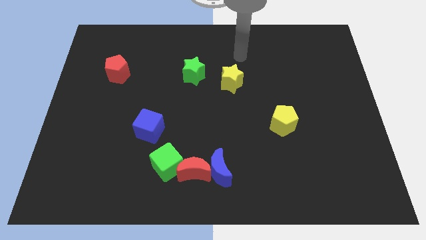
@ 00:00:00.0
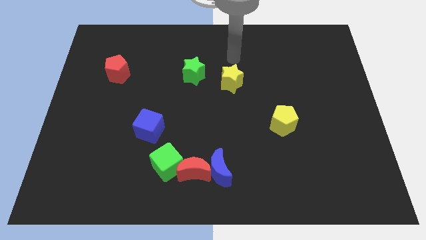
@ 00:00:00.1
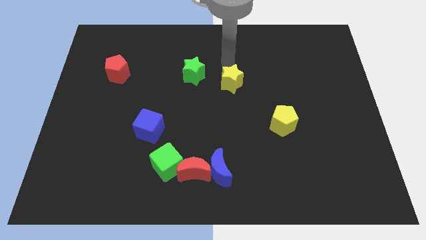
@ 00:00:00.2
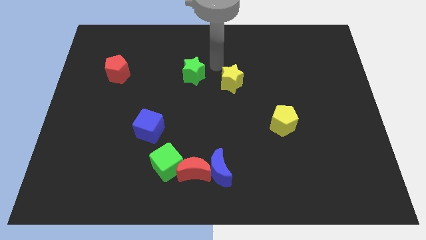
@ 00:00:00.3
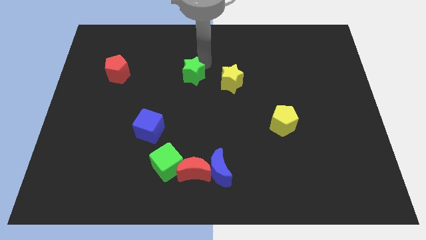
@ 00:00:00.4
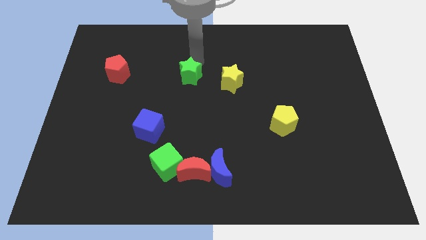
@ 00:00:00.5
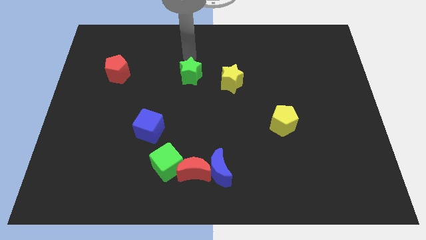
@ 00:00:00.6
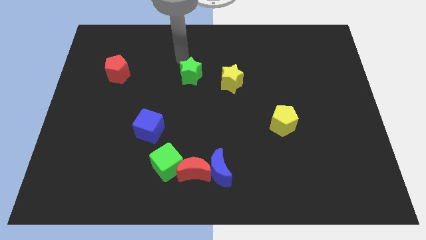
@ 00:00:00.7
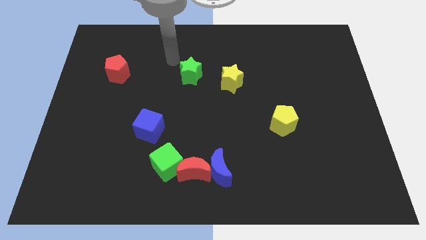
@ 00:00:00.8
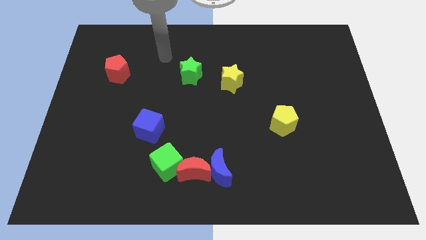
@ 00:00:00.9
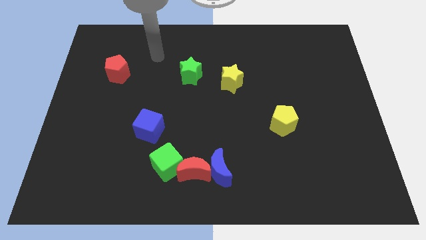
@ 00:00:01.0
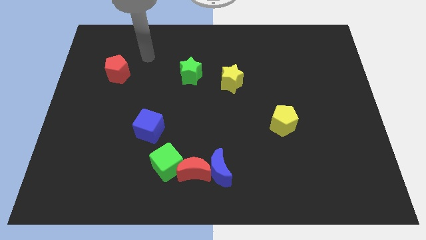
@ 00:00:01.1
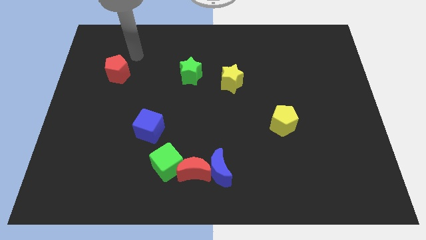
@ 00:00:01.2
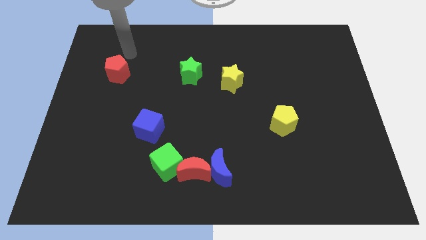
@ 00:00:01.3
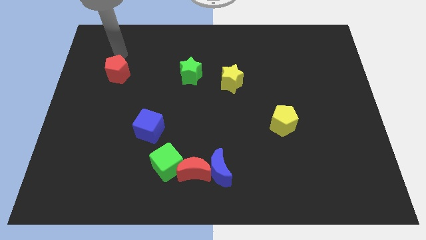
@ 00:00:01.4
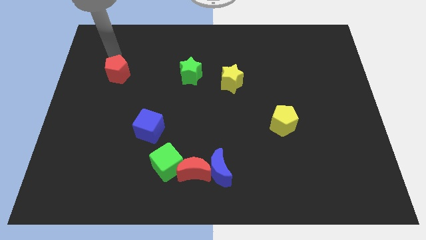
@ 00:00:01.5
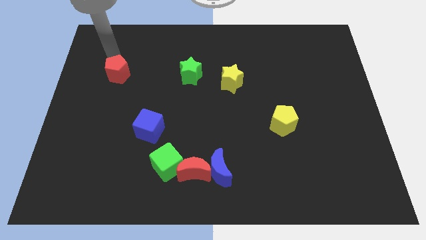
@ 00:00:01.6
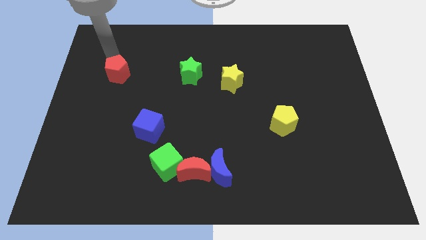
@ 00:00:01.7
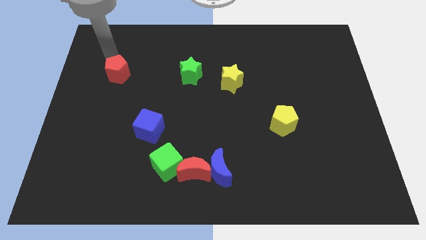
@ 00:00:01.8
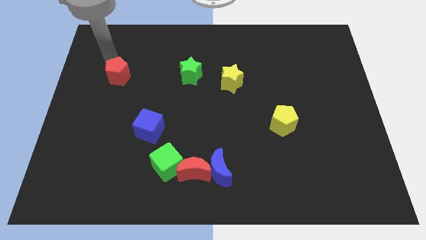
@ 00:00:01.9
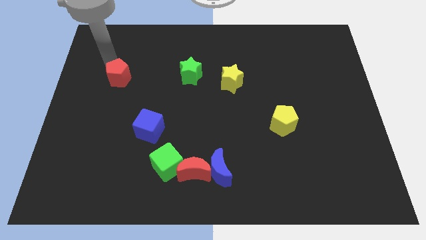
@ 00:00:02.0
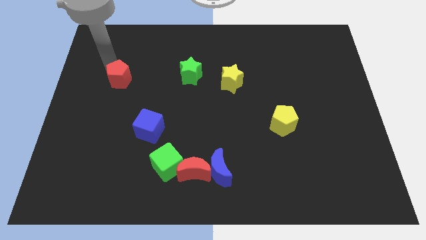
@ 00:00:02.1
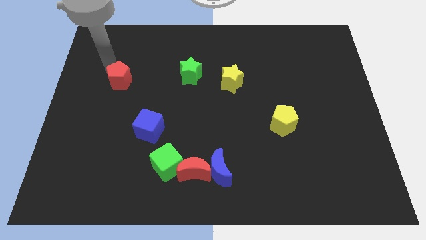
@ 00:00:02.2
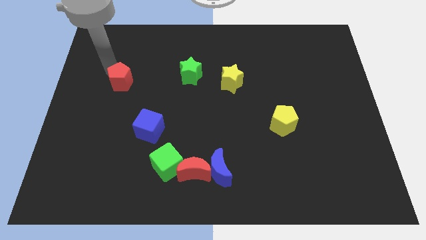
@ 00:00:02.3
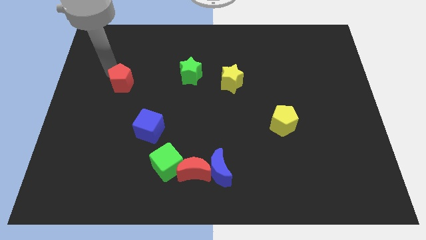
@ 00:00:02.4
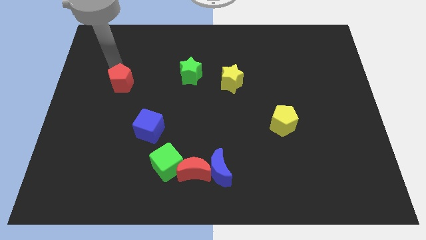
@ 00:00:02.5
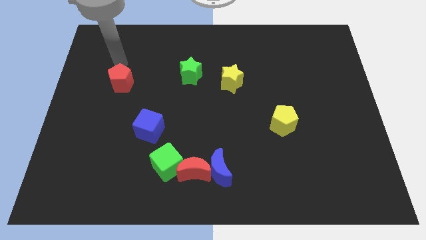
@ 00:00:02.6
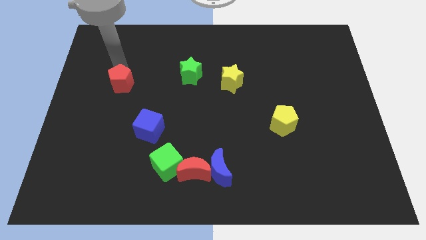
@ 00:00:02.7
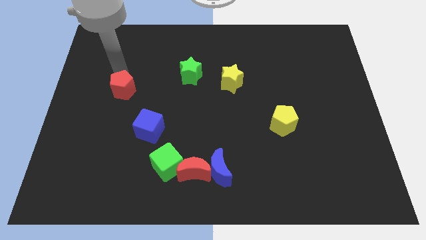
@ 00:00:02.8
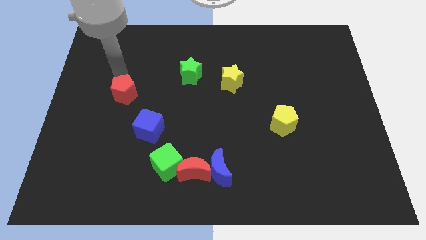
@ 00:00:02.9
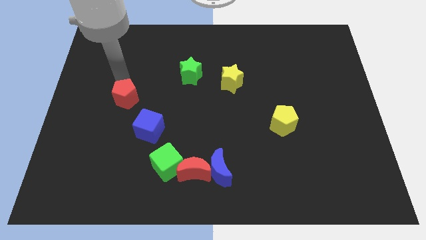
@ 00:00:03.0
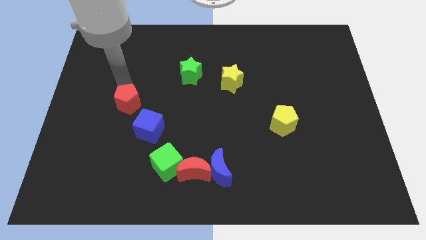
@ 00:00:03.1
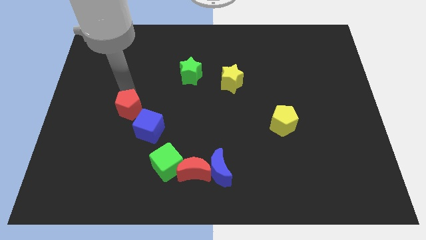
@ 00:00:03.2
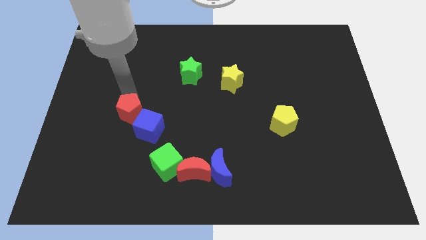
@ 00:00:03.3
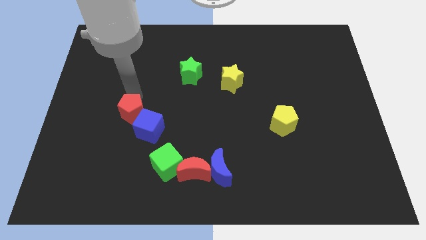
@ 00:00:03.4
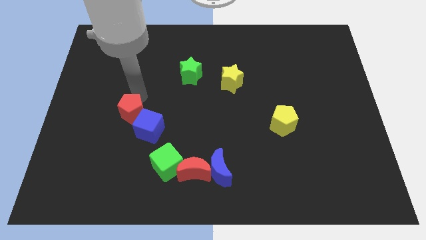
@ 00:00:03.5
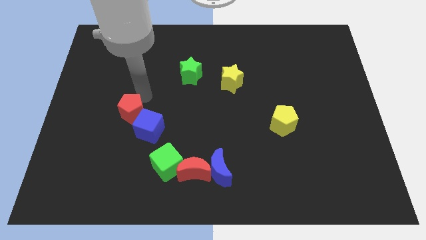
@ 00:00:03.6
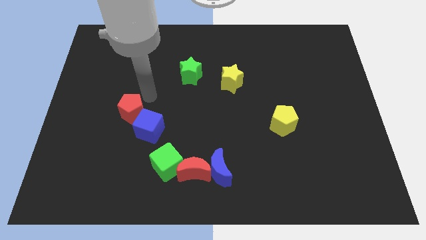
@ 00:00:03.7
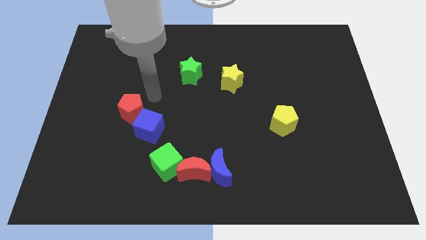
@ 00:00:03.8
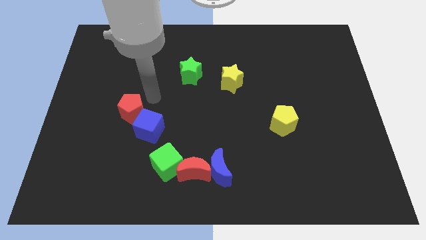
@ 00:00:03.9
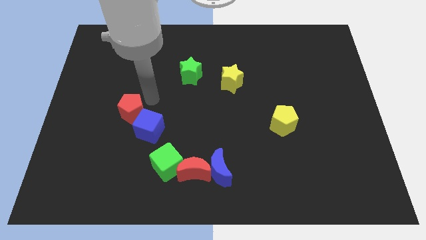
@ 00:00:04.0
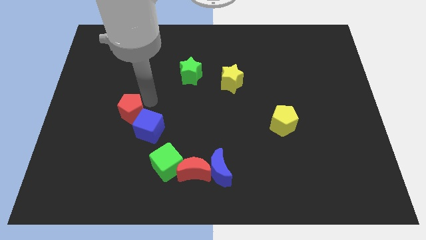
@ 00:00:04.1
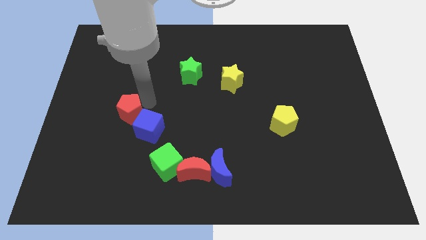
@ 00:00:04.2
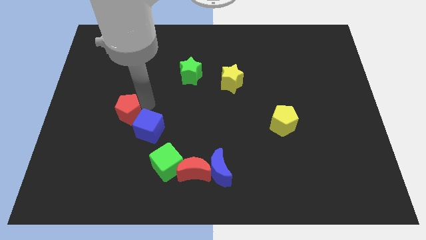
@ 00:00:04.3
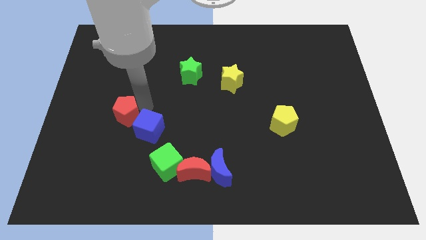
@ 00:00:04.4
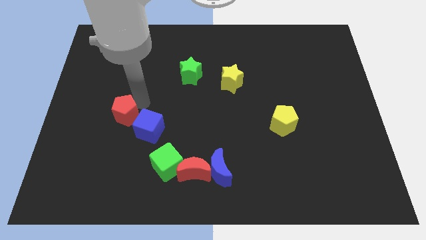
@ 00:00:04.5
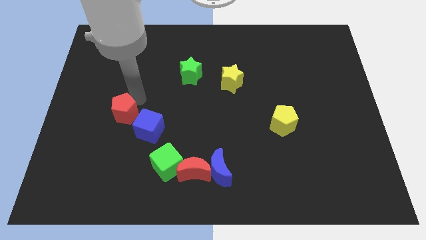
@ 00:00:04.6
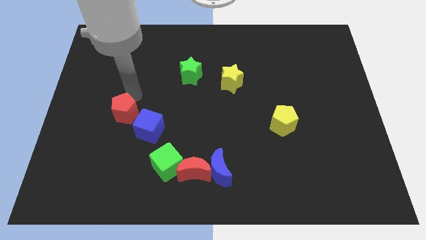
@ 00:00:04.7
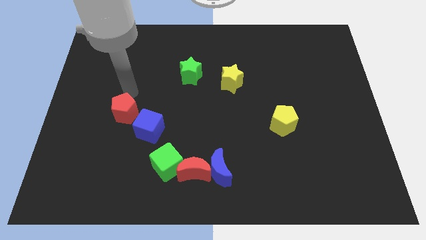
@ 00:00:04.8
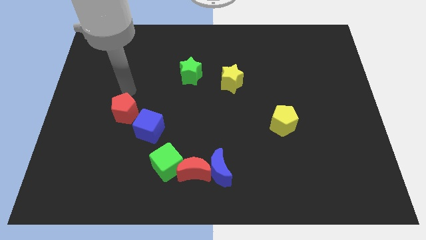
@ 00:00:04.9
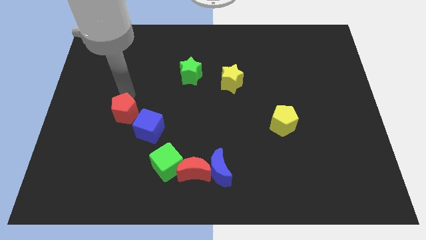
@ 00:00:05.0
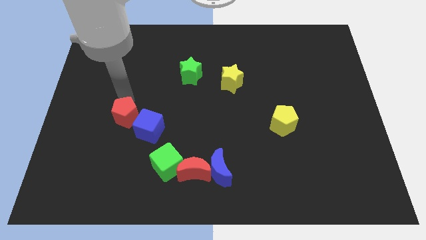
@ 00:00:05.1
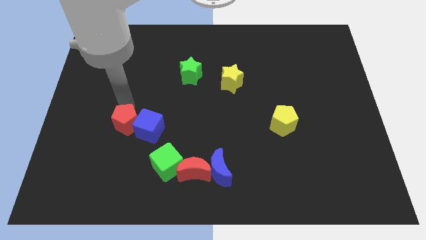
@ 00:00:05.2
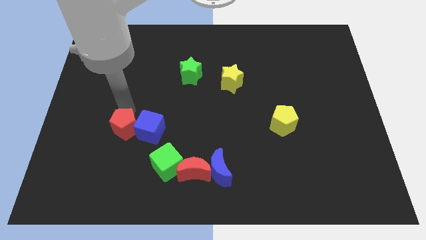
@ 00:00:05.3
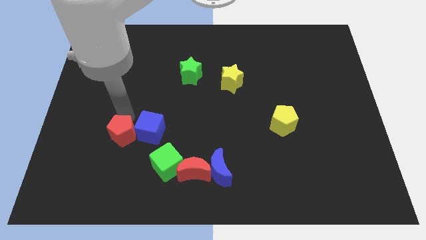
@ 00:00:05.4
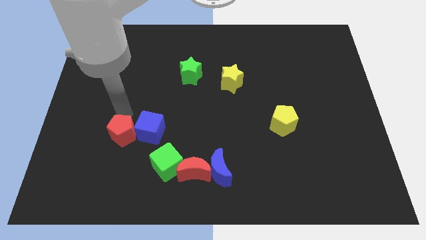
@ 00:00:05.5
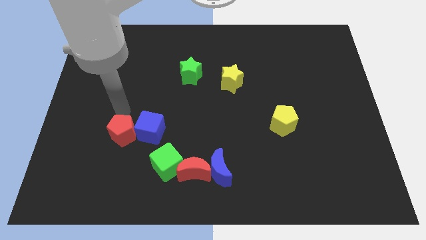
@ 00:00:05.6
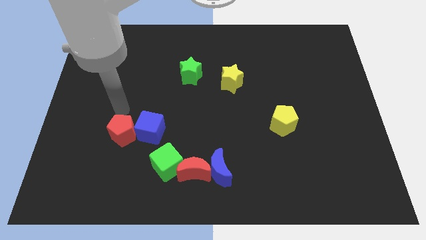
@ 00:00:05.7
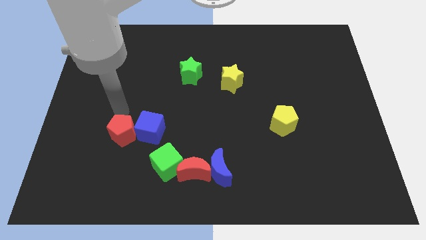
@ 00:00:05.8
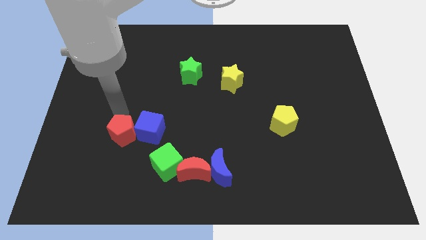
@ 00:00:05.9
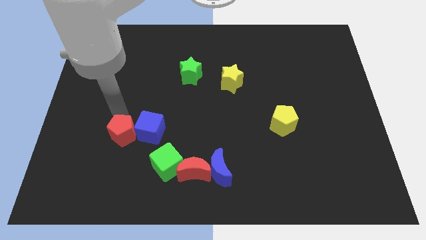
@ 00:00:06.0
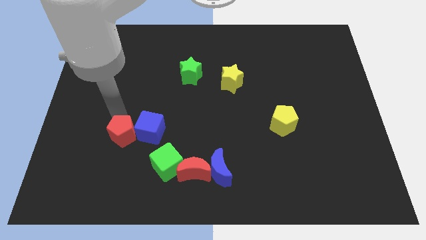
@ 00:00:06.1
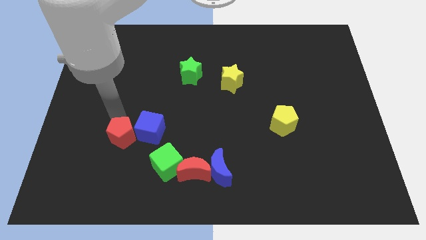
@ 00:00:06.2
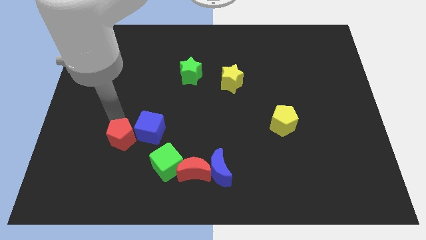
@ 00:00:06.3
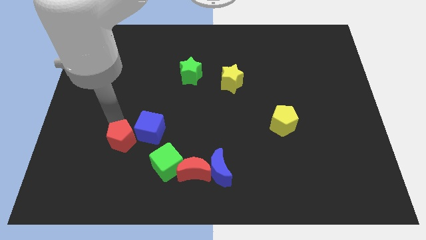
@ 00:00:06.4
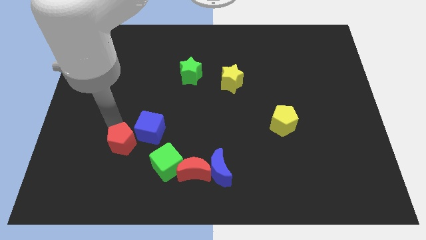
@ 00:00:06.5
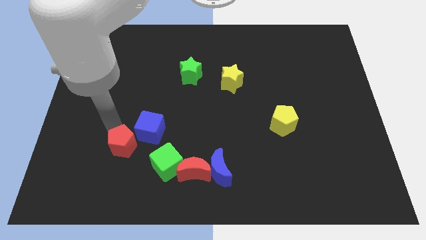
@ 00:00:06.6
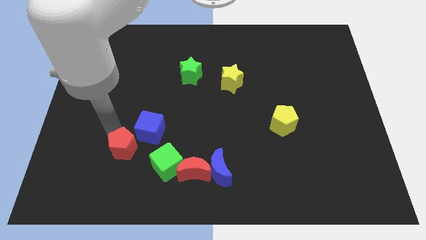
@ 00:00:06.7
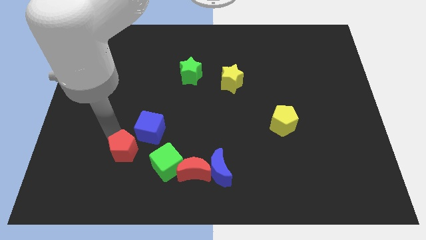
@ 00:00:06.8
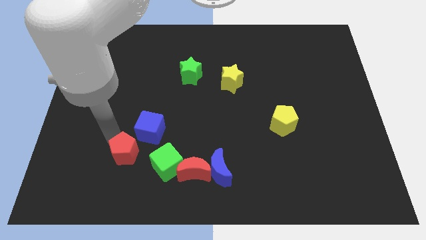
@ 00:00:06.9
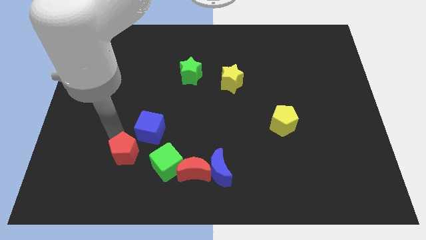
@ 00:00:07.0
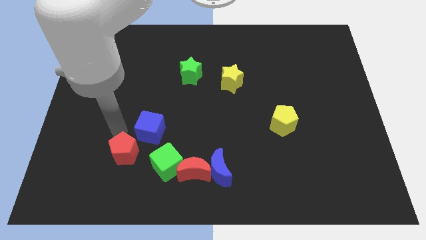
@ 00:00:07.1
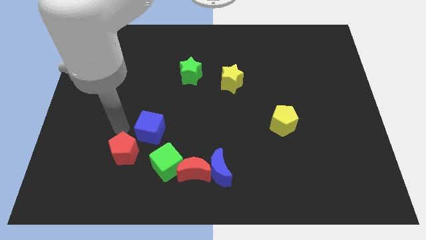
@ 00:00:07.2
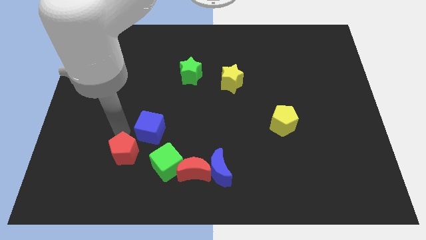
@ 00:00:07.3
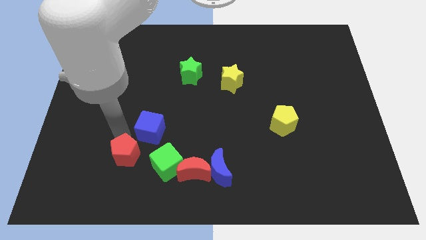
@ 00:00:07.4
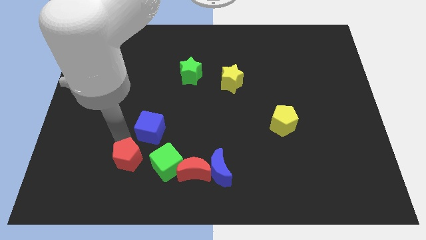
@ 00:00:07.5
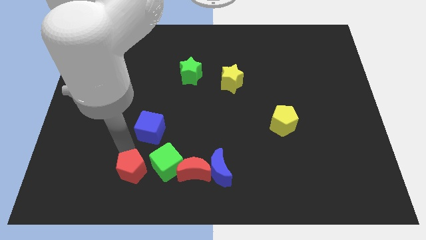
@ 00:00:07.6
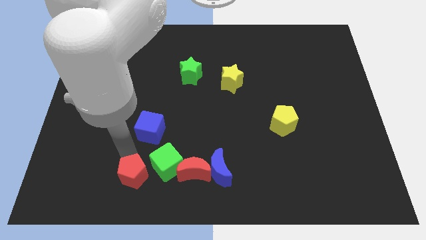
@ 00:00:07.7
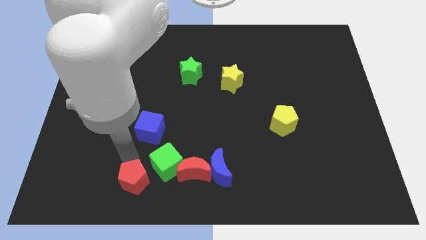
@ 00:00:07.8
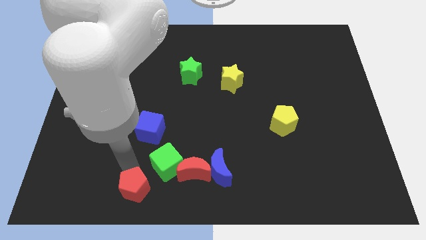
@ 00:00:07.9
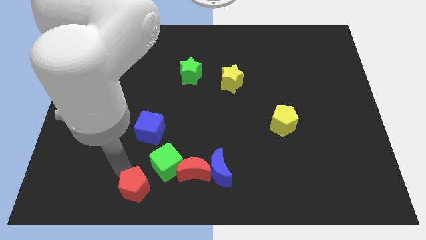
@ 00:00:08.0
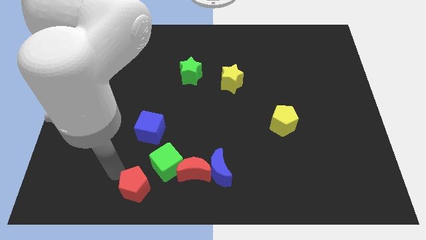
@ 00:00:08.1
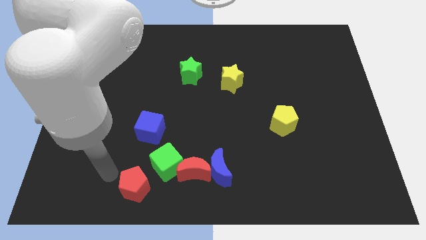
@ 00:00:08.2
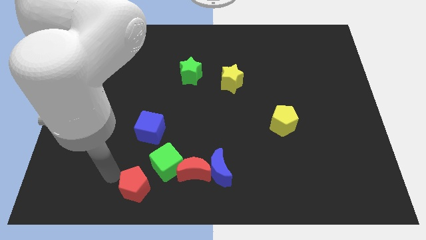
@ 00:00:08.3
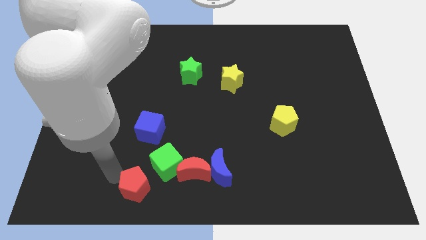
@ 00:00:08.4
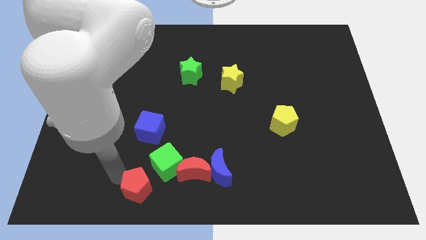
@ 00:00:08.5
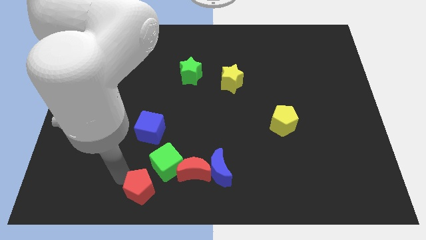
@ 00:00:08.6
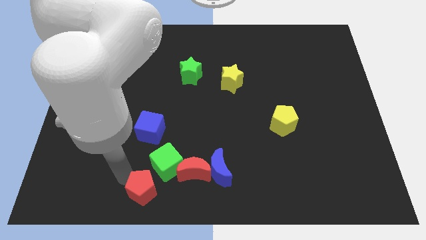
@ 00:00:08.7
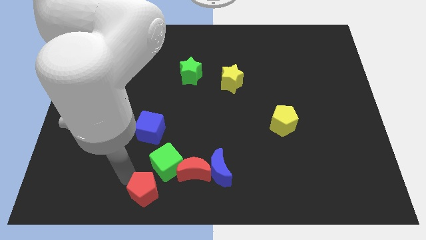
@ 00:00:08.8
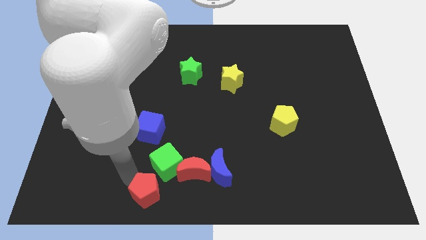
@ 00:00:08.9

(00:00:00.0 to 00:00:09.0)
put the red pentagon to the bottom
